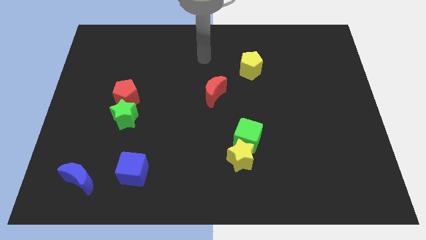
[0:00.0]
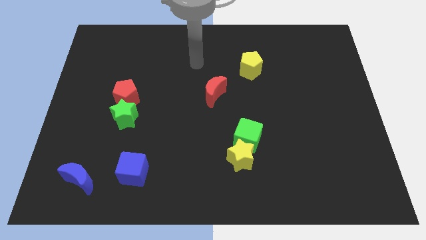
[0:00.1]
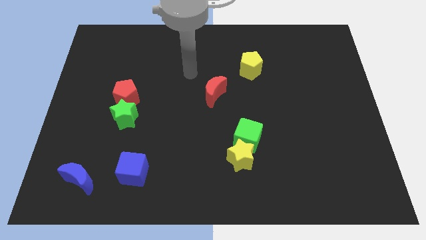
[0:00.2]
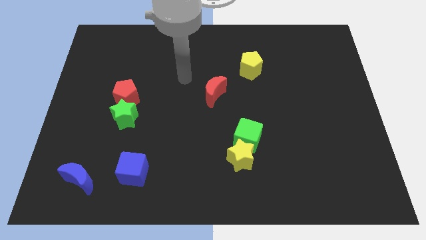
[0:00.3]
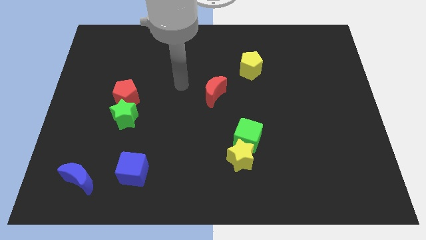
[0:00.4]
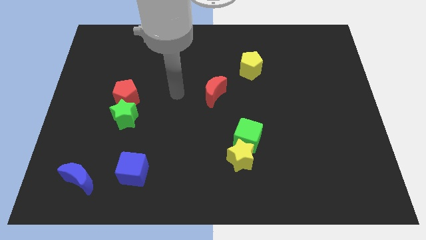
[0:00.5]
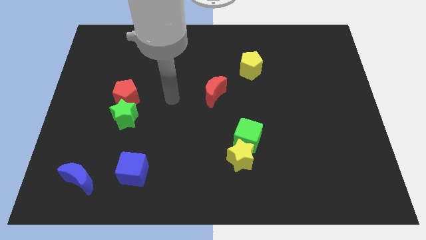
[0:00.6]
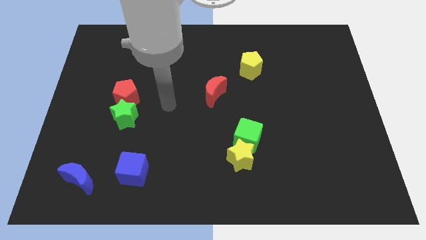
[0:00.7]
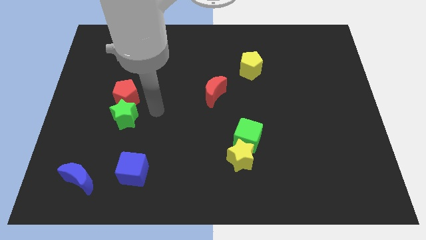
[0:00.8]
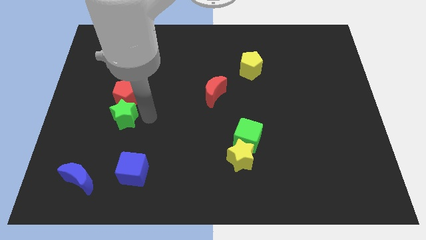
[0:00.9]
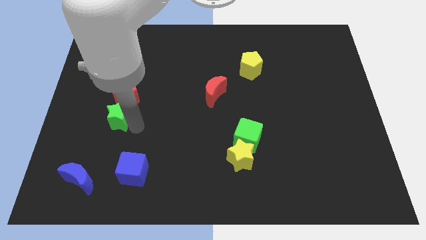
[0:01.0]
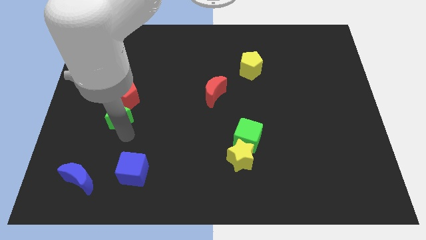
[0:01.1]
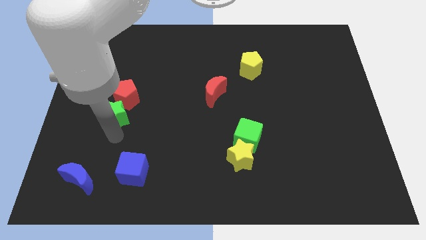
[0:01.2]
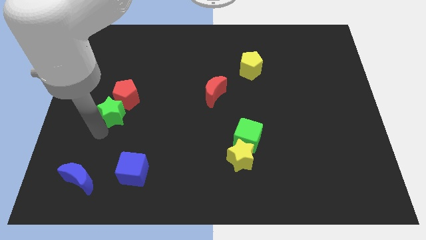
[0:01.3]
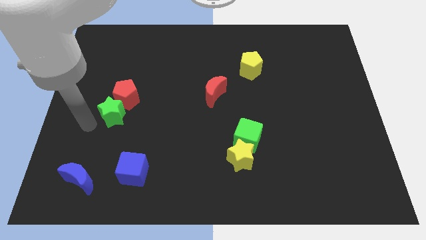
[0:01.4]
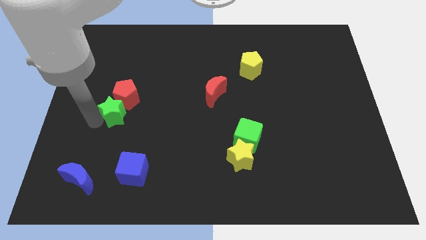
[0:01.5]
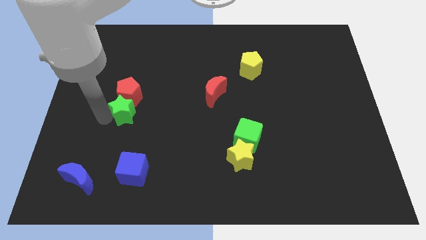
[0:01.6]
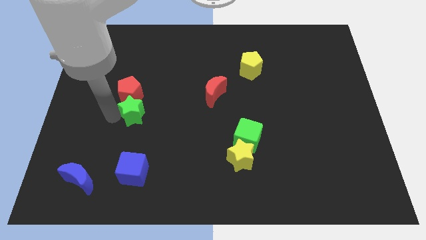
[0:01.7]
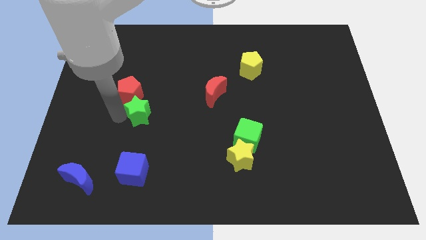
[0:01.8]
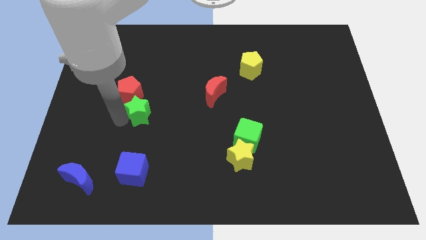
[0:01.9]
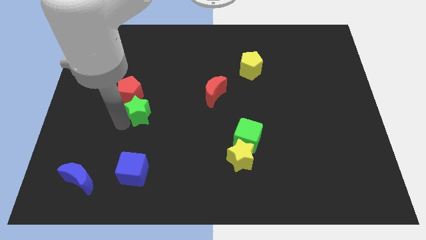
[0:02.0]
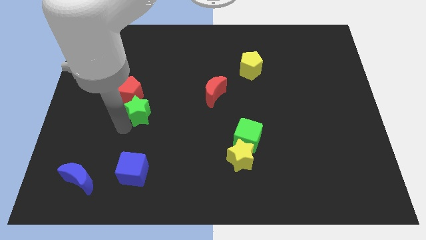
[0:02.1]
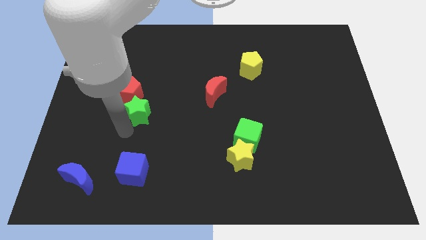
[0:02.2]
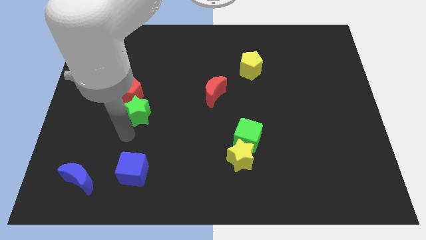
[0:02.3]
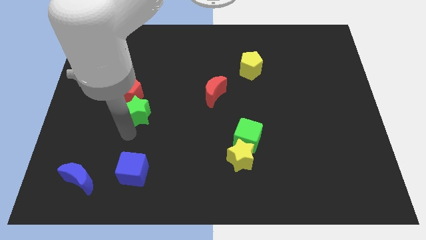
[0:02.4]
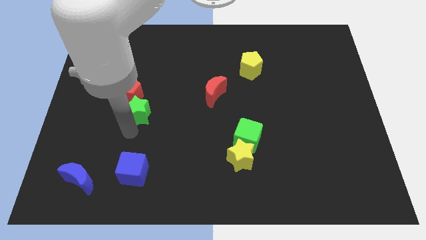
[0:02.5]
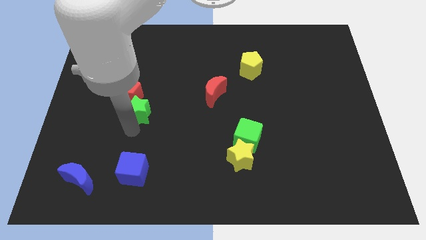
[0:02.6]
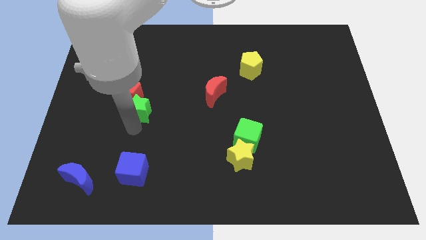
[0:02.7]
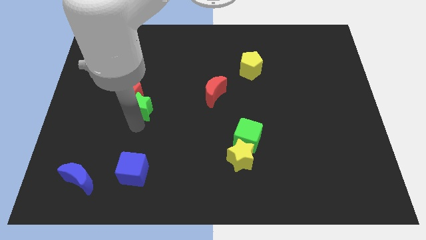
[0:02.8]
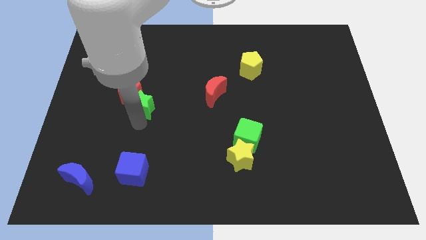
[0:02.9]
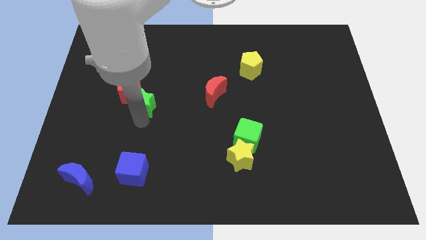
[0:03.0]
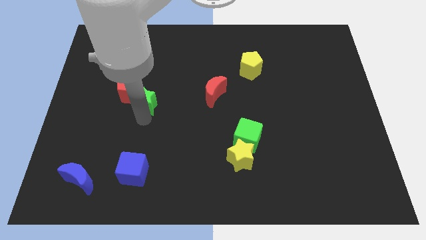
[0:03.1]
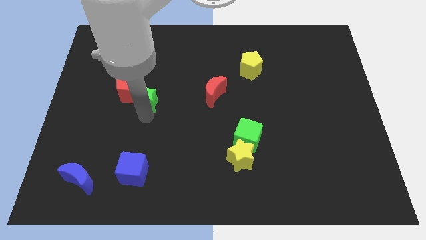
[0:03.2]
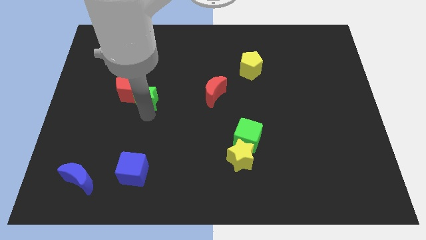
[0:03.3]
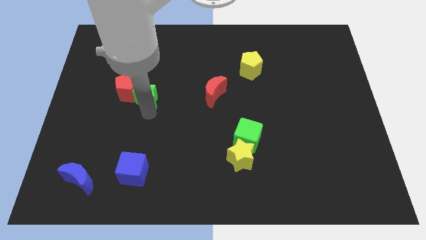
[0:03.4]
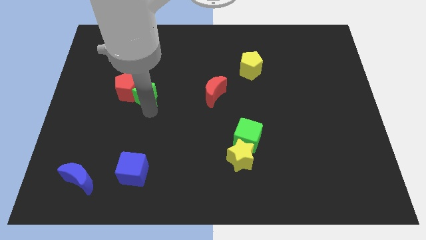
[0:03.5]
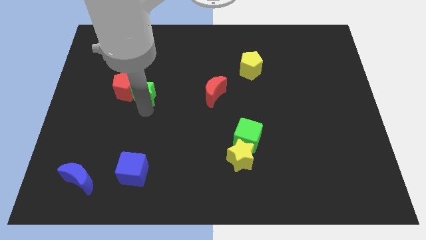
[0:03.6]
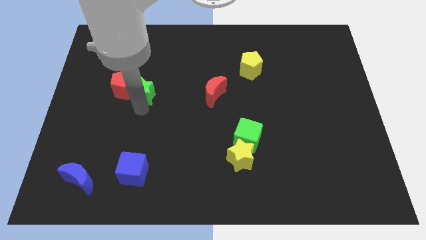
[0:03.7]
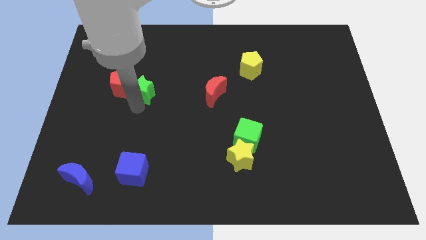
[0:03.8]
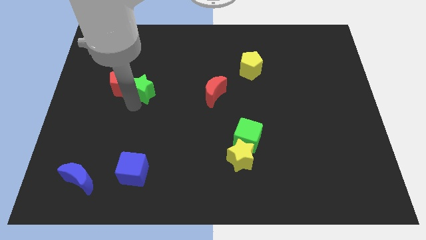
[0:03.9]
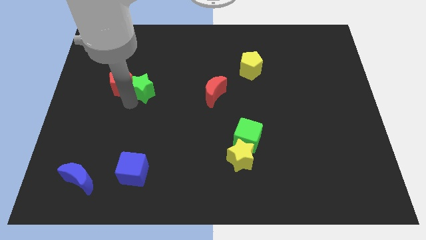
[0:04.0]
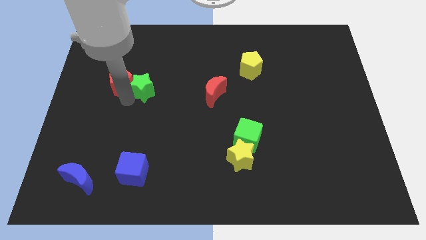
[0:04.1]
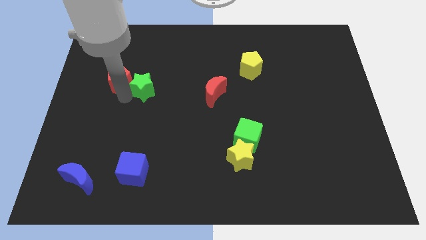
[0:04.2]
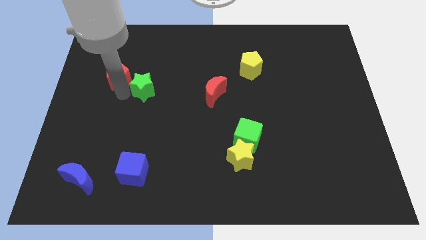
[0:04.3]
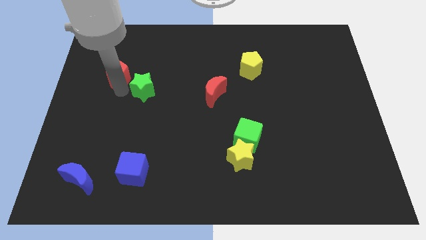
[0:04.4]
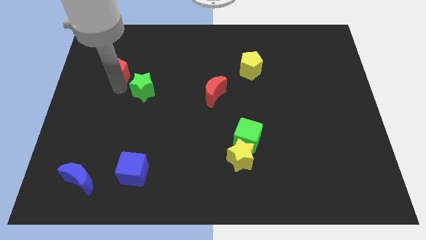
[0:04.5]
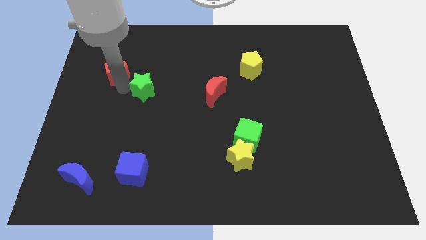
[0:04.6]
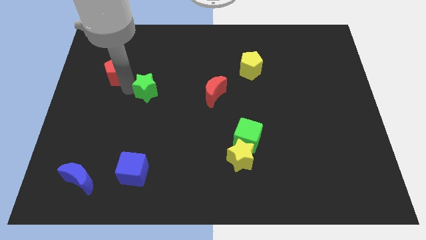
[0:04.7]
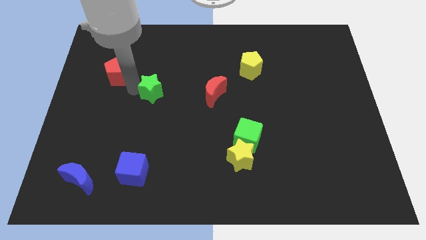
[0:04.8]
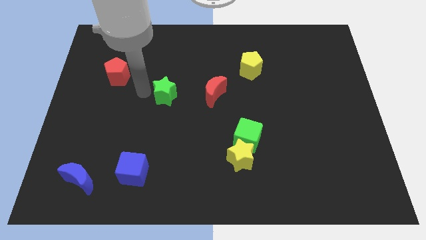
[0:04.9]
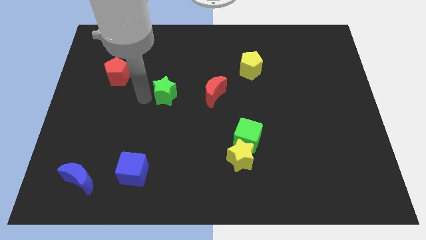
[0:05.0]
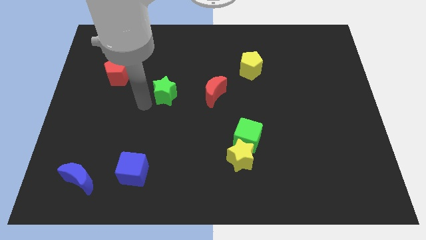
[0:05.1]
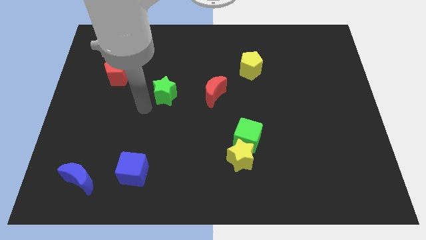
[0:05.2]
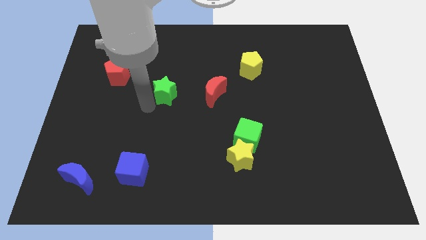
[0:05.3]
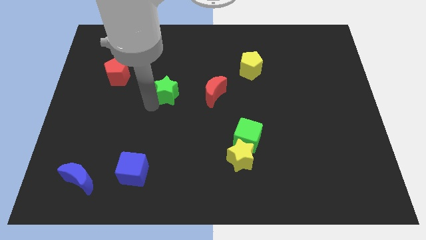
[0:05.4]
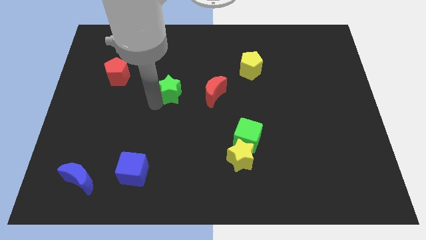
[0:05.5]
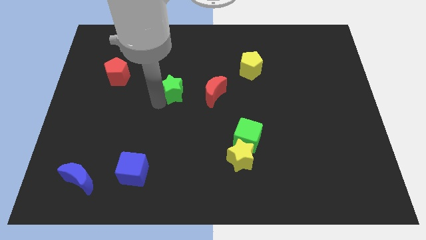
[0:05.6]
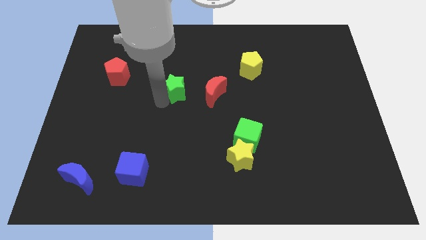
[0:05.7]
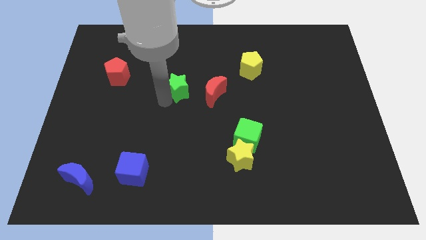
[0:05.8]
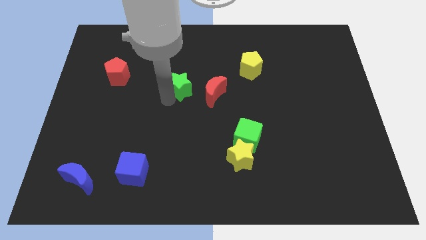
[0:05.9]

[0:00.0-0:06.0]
slide the green star to the top left side of the red moon

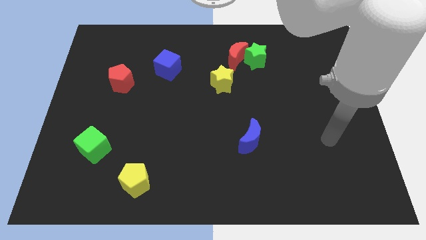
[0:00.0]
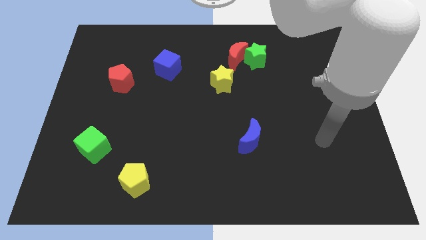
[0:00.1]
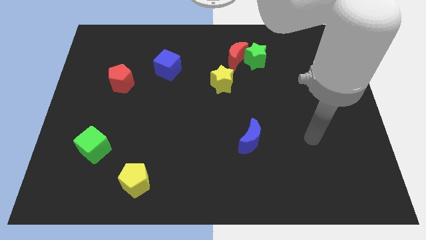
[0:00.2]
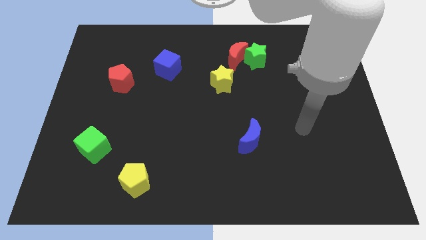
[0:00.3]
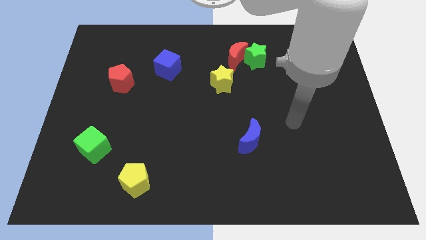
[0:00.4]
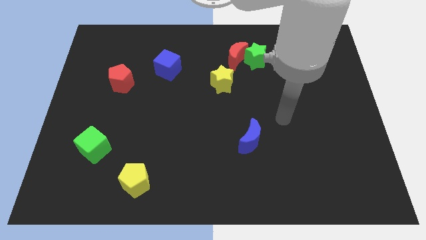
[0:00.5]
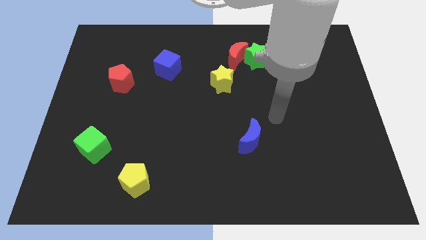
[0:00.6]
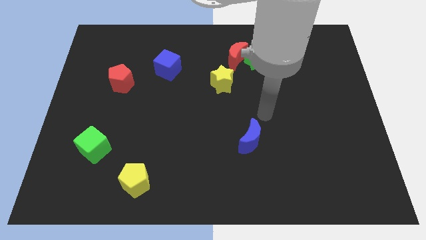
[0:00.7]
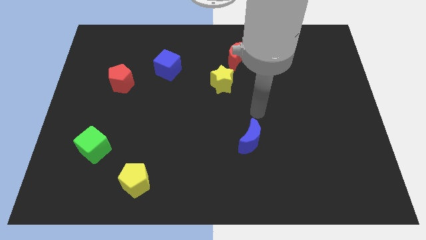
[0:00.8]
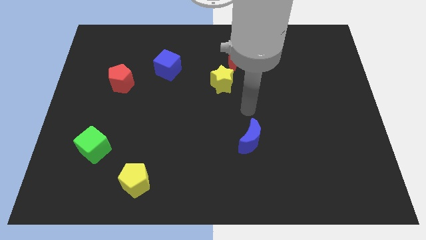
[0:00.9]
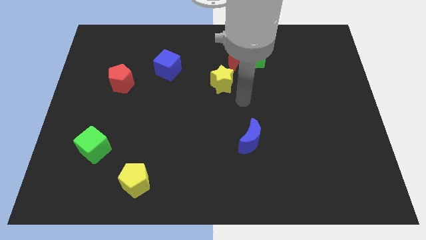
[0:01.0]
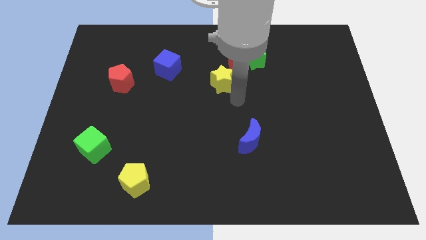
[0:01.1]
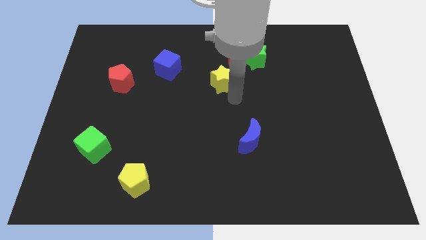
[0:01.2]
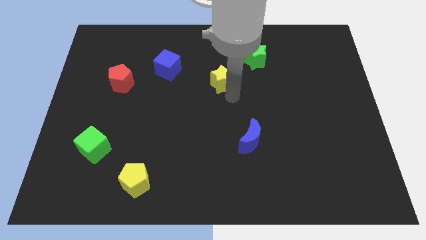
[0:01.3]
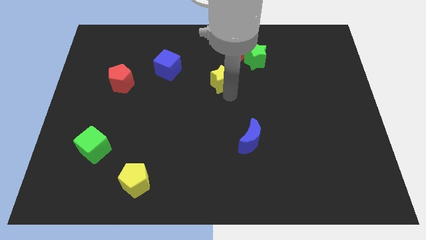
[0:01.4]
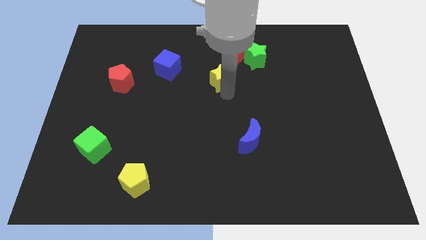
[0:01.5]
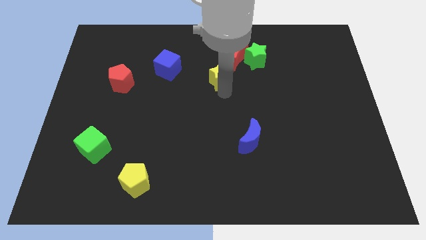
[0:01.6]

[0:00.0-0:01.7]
put the yellow star to the right side of the blue cube

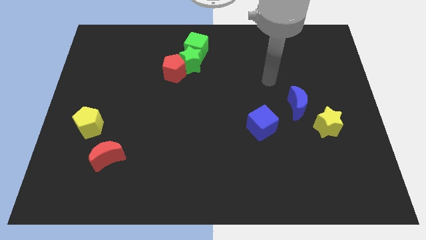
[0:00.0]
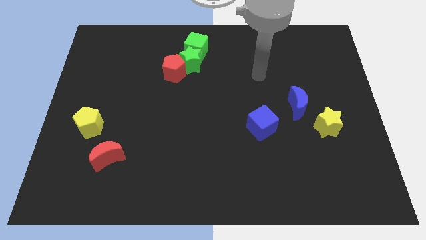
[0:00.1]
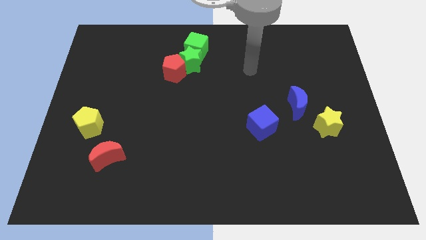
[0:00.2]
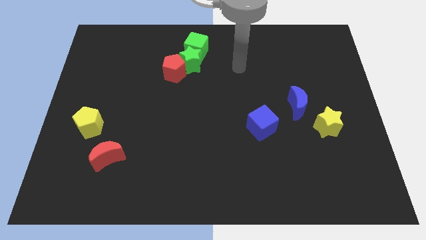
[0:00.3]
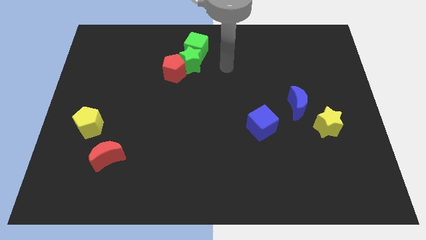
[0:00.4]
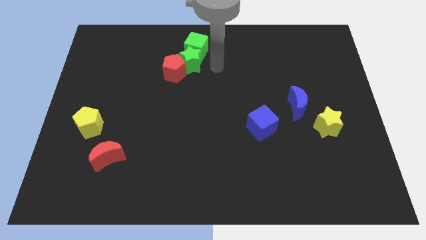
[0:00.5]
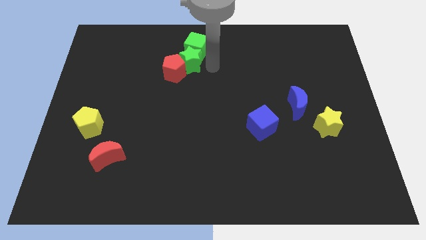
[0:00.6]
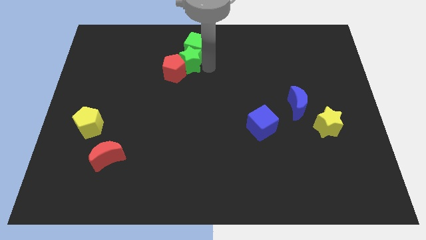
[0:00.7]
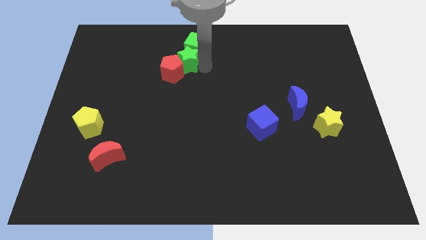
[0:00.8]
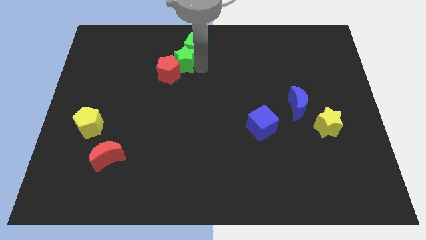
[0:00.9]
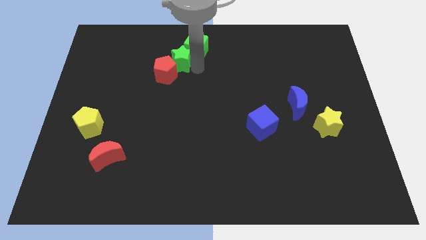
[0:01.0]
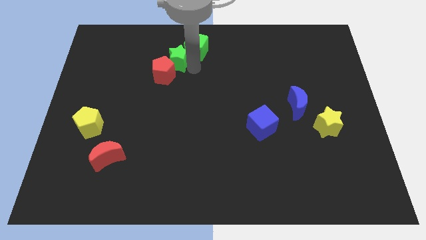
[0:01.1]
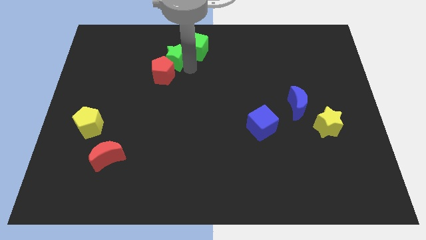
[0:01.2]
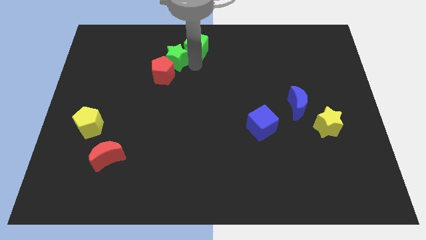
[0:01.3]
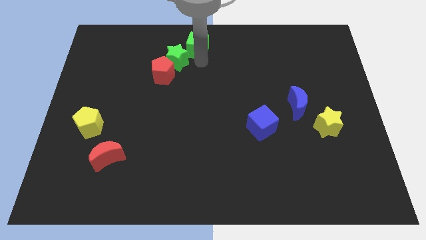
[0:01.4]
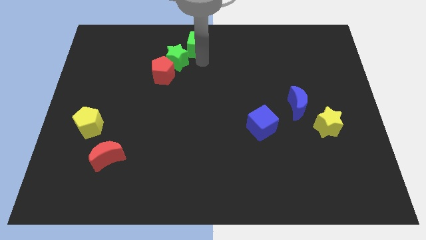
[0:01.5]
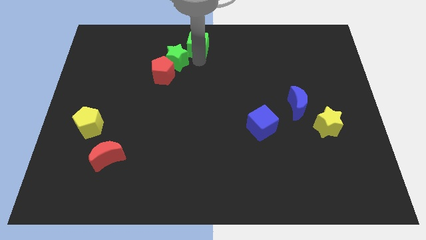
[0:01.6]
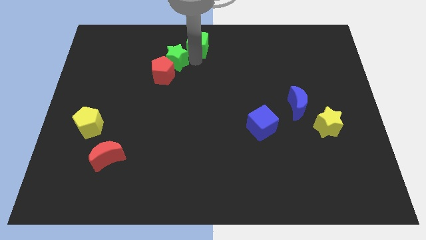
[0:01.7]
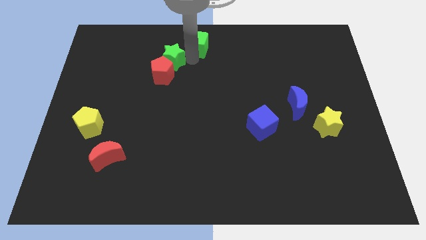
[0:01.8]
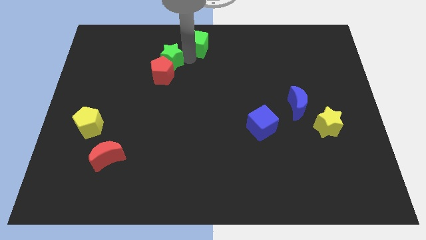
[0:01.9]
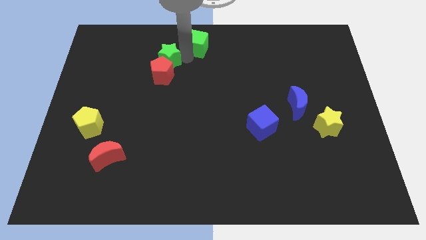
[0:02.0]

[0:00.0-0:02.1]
move the green star to the top left of the red pentagon
